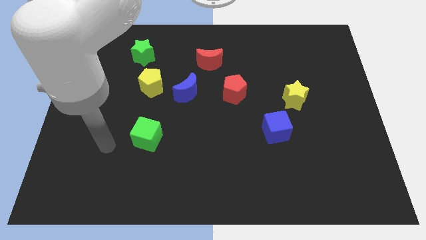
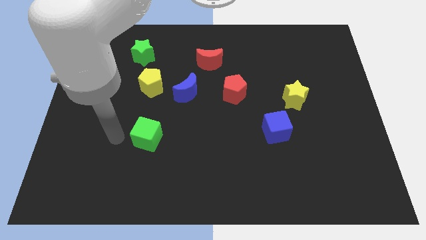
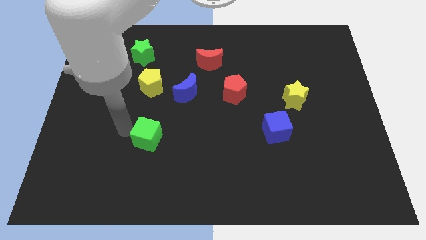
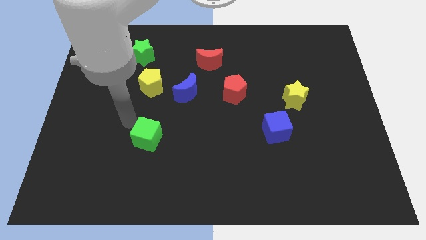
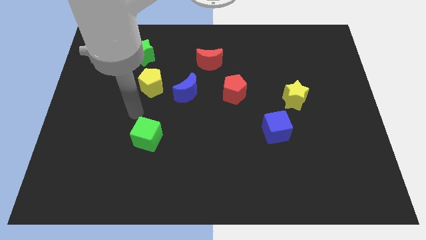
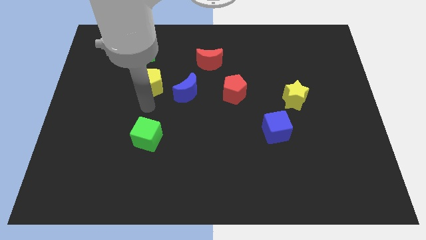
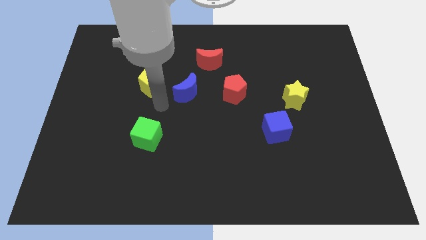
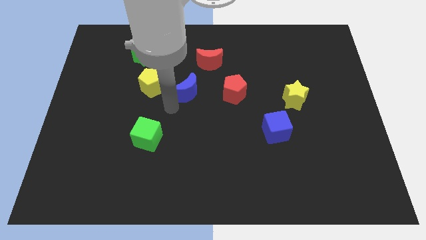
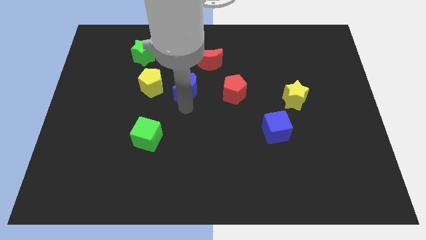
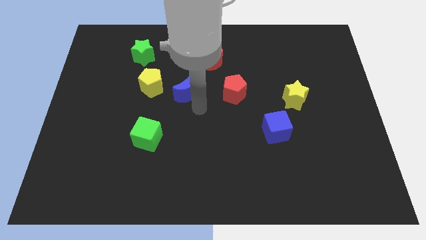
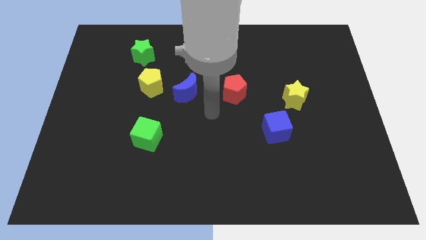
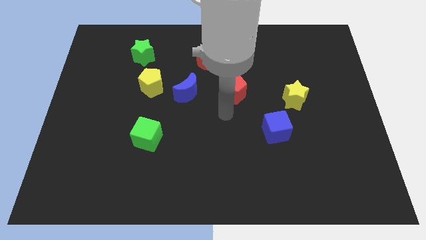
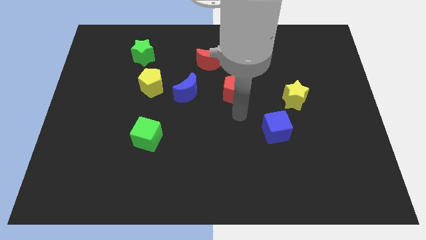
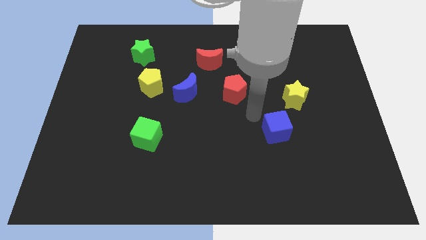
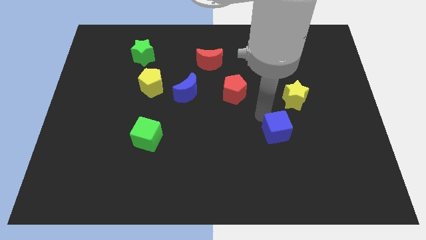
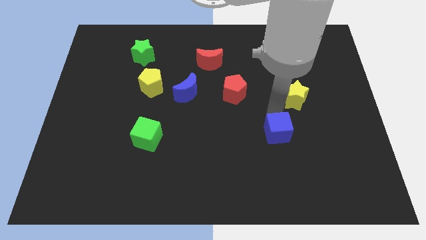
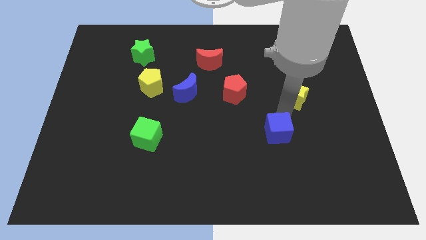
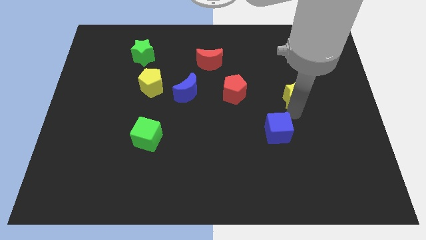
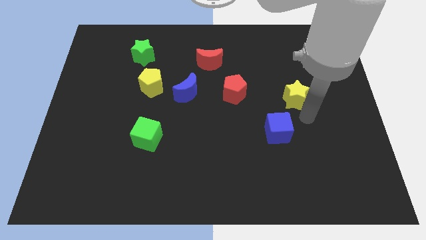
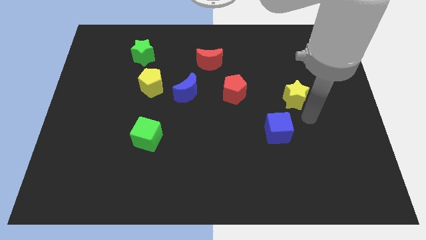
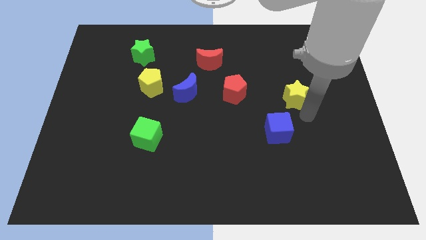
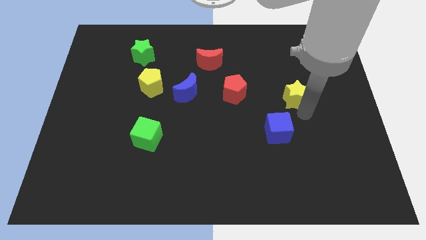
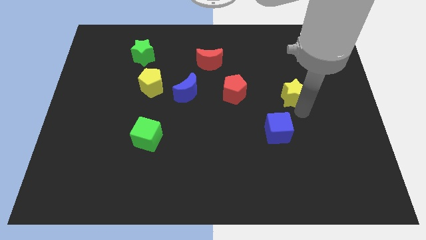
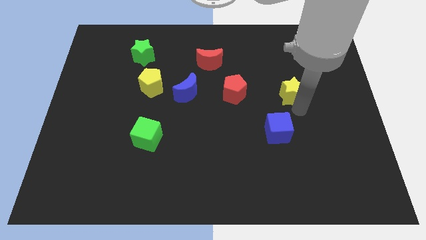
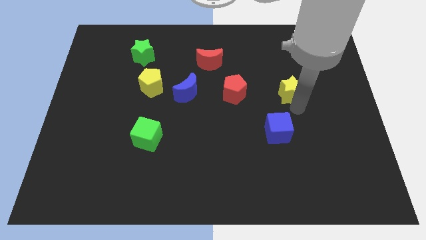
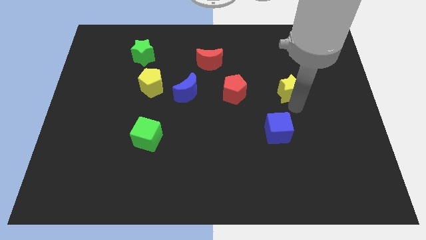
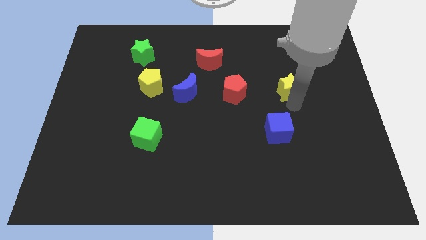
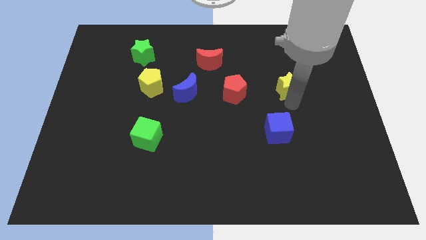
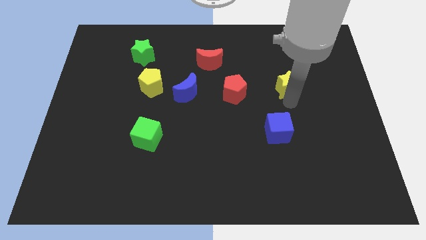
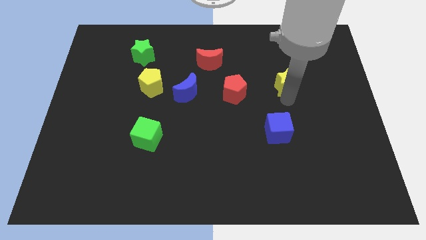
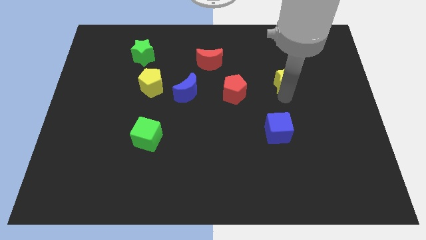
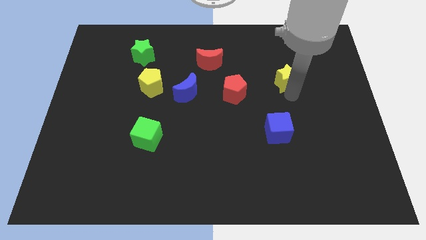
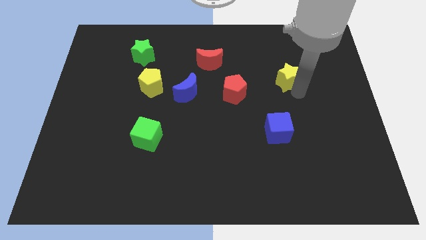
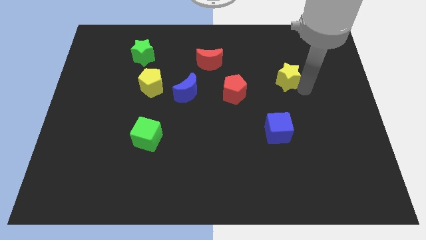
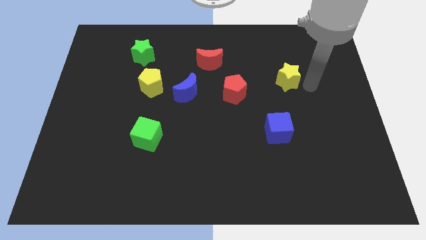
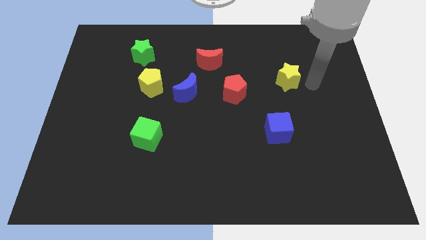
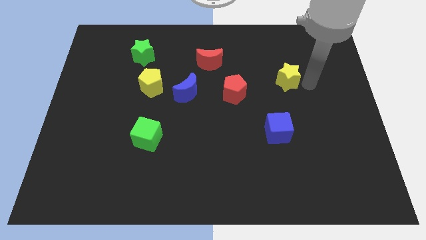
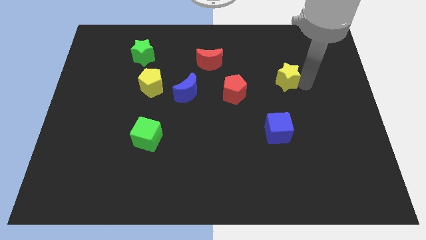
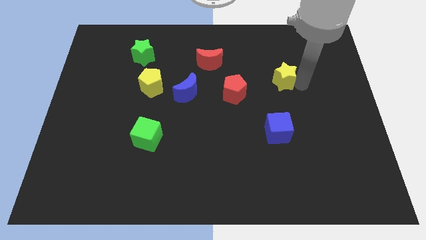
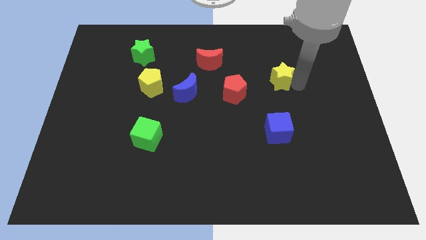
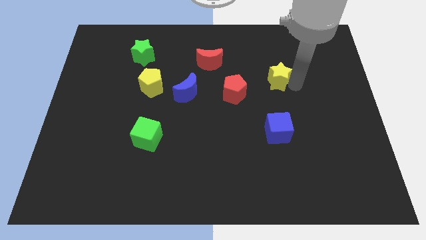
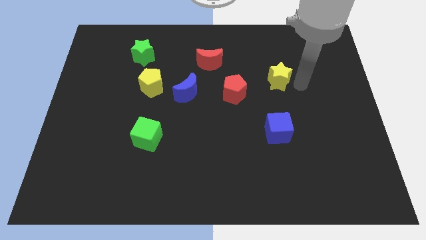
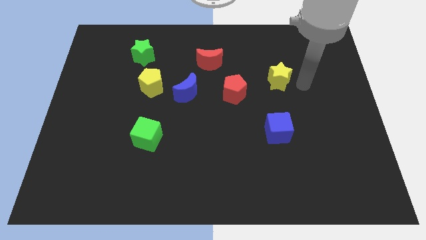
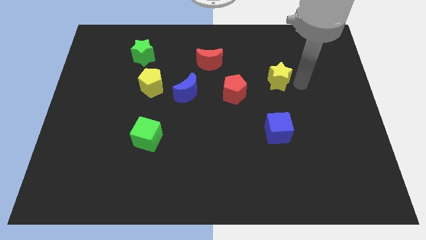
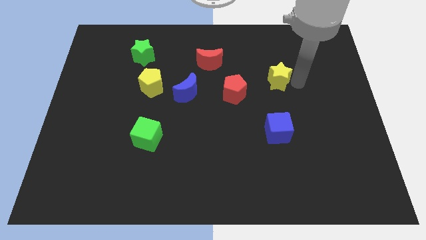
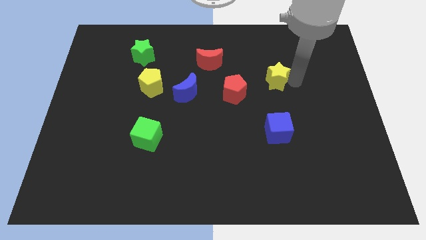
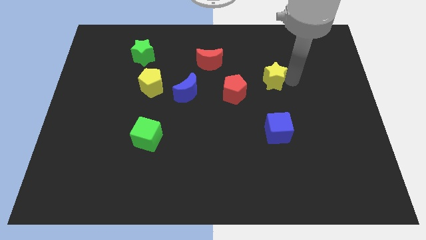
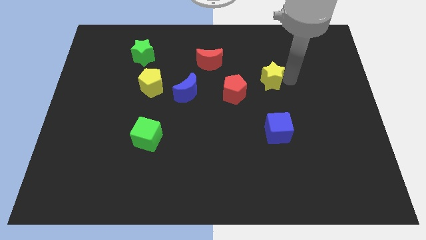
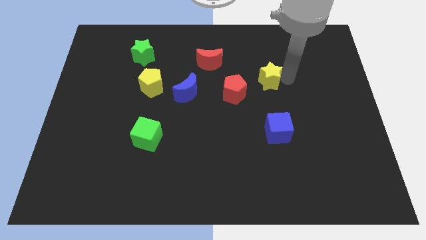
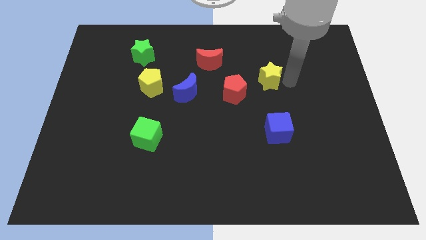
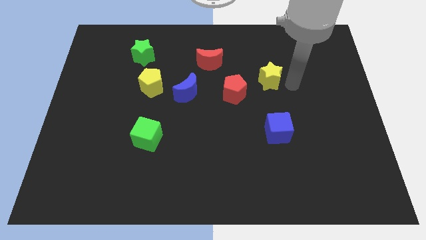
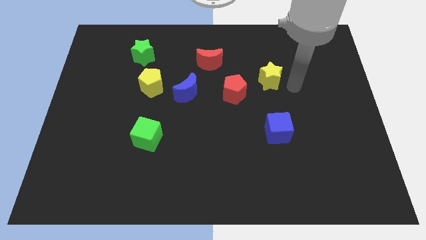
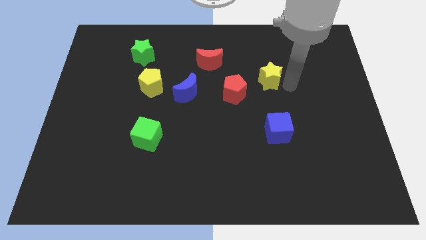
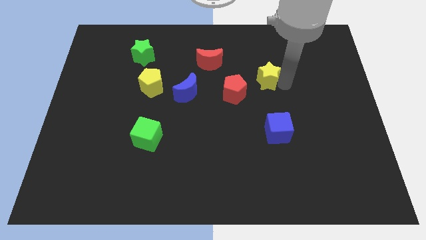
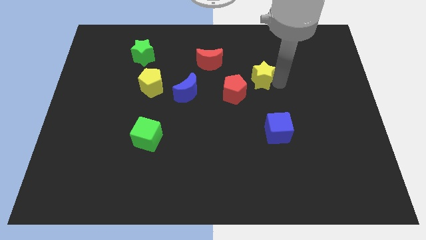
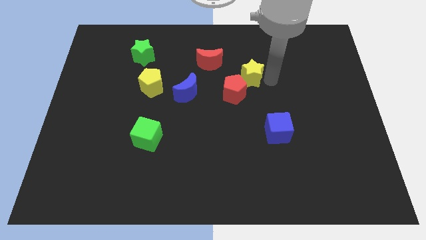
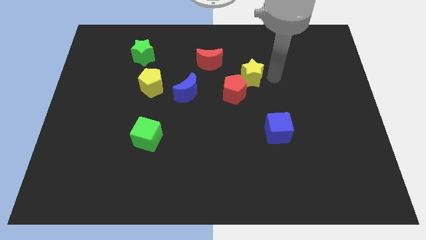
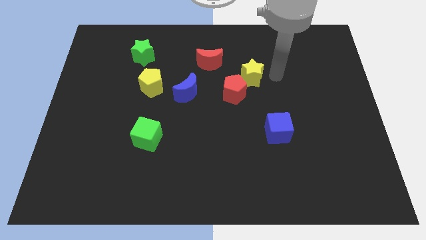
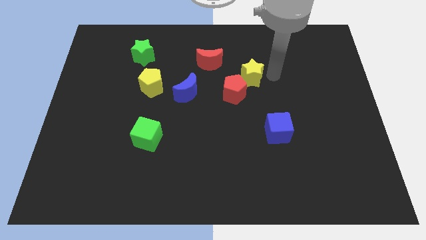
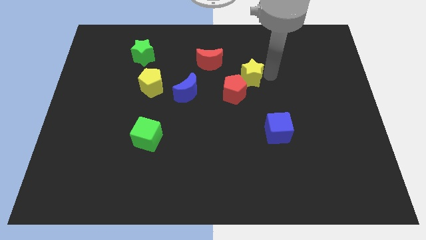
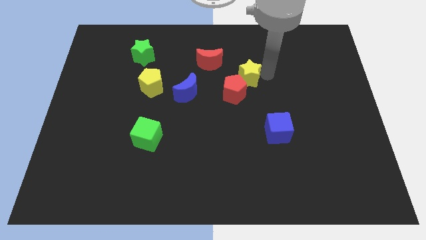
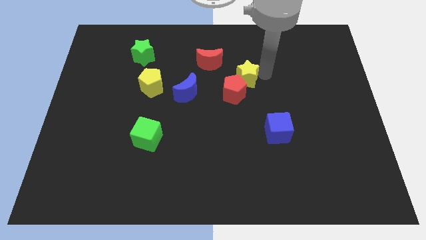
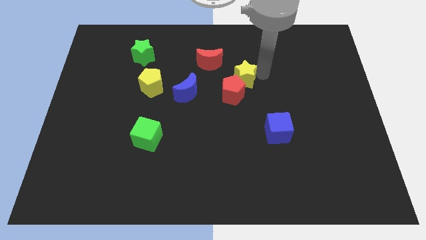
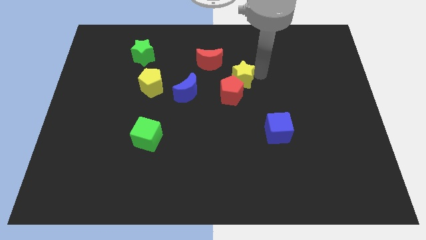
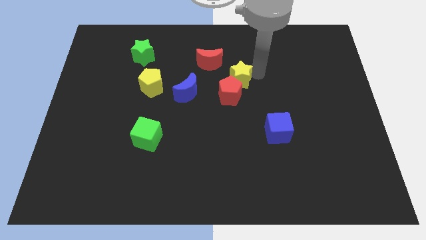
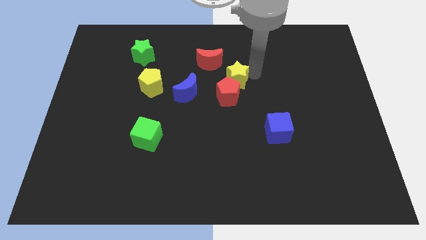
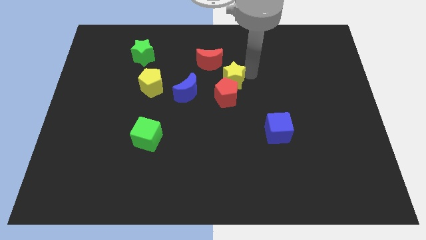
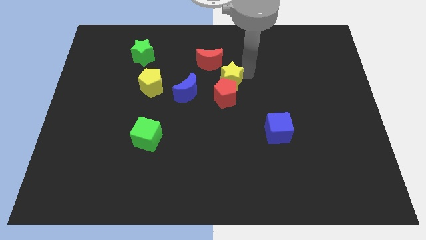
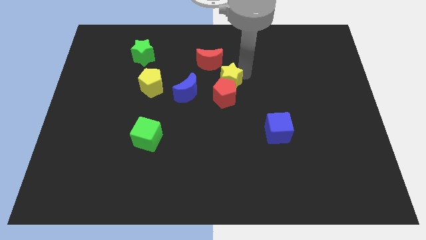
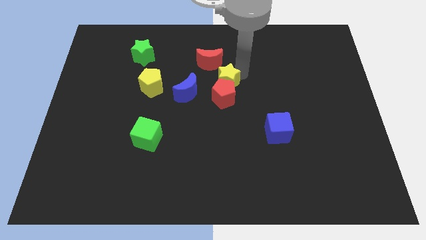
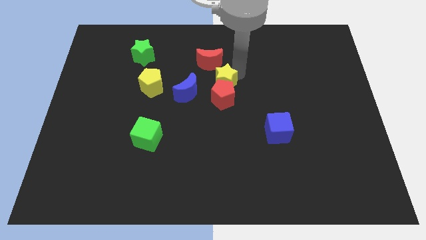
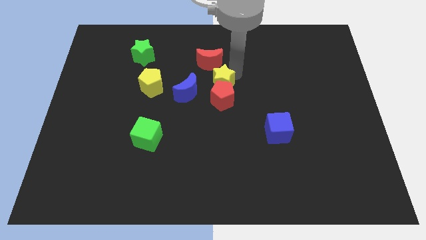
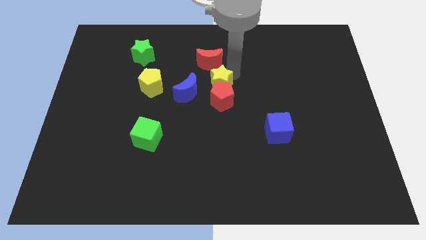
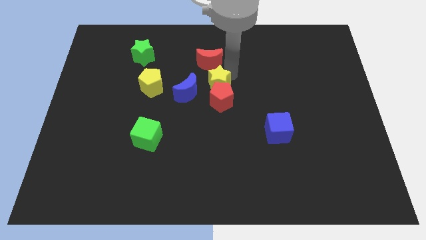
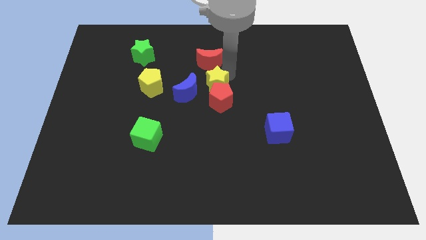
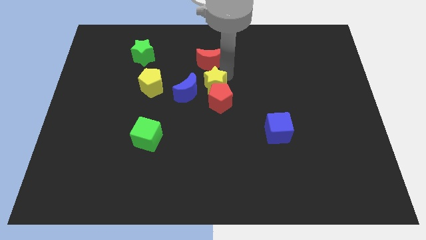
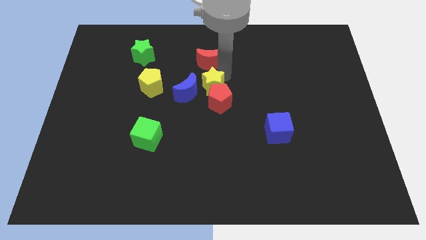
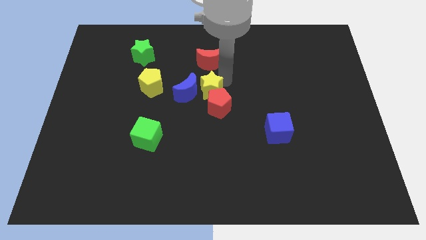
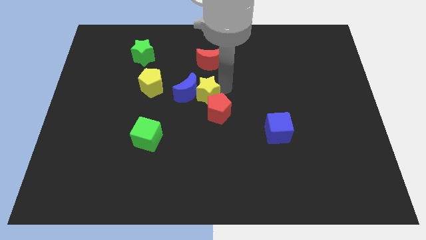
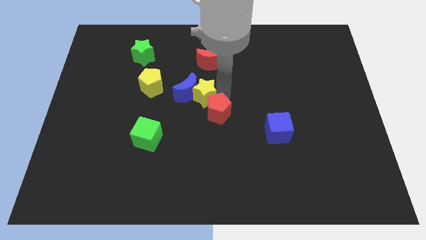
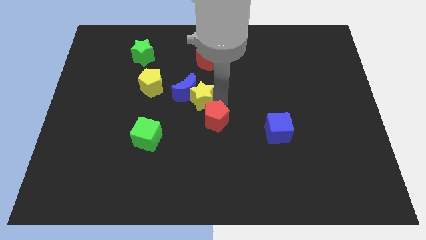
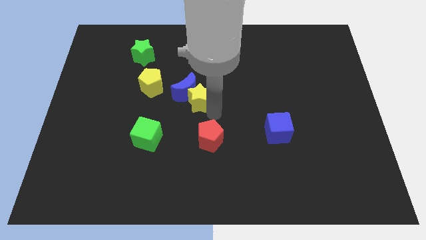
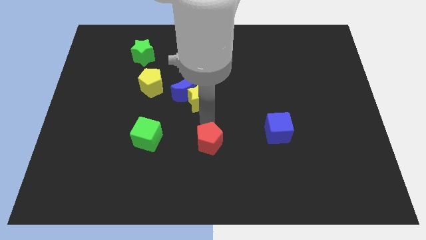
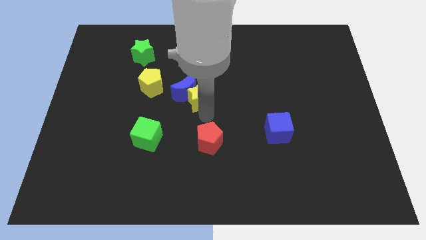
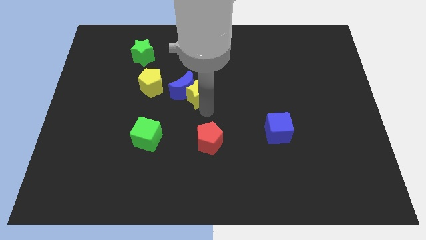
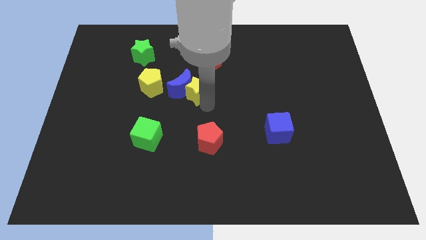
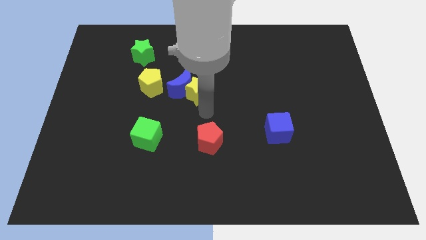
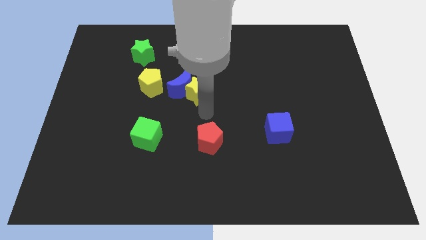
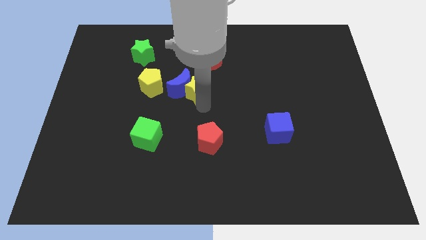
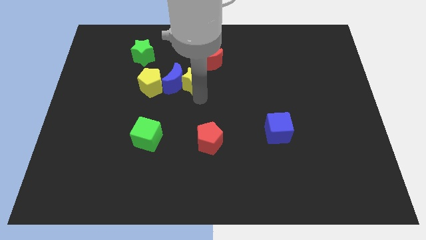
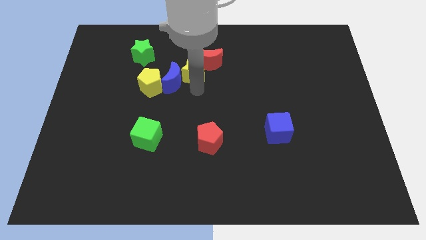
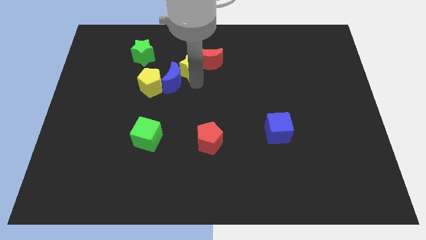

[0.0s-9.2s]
move the yellow star to the top of the blue moon
